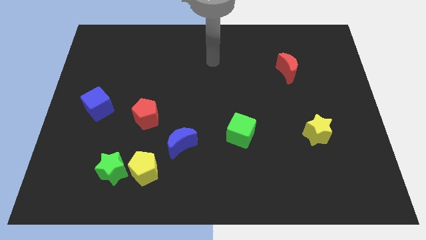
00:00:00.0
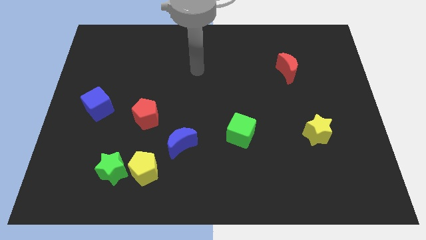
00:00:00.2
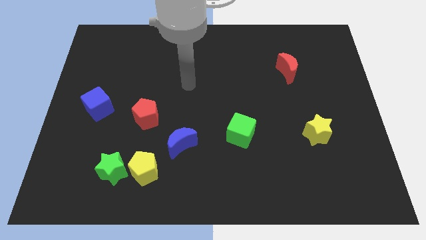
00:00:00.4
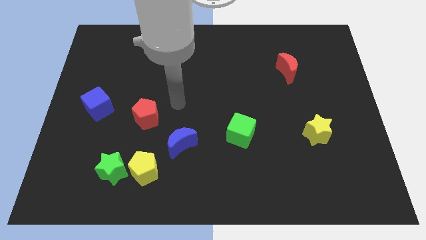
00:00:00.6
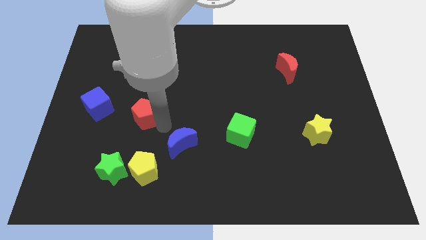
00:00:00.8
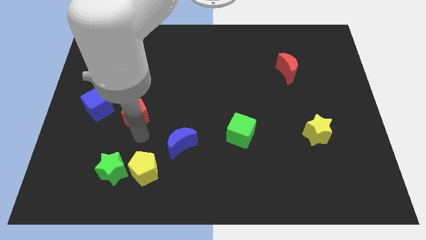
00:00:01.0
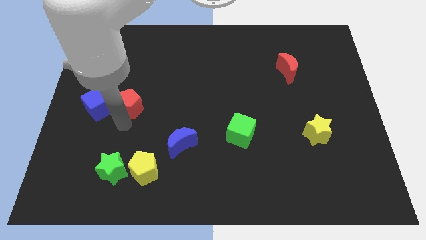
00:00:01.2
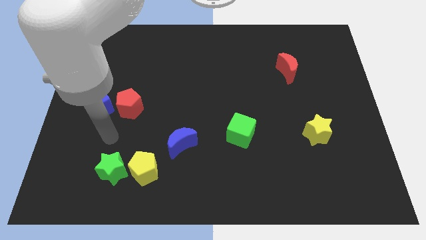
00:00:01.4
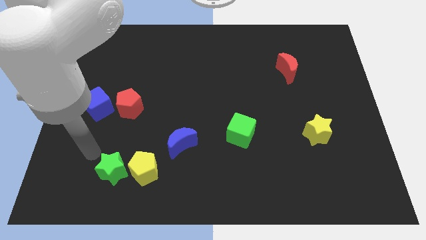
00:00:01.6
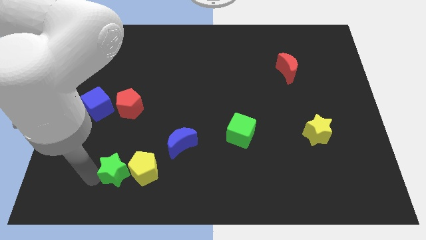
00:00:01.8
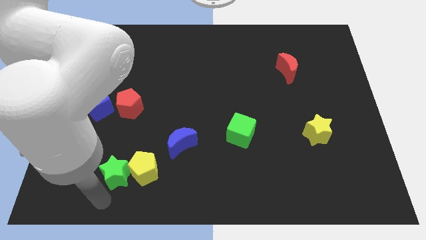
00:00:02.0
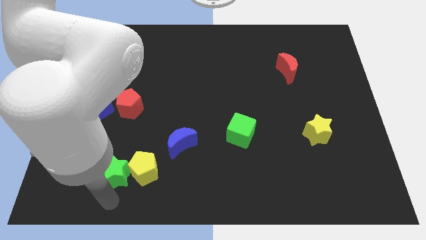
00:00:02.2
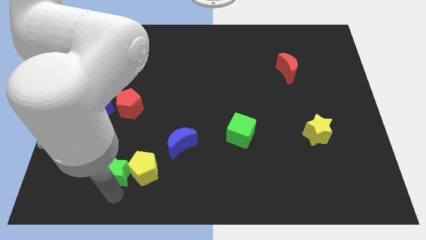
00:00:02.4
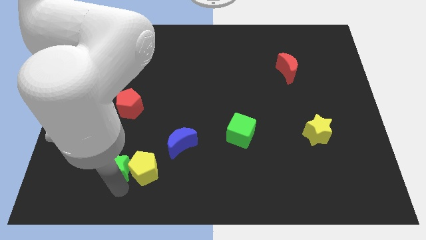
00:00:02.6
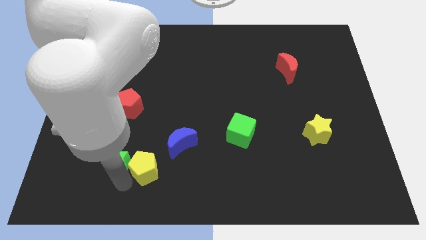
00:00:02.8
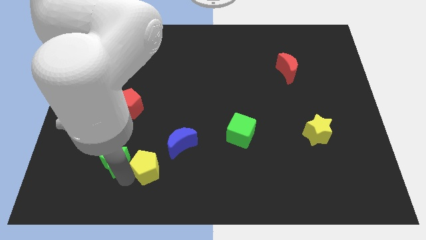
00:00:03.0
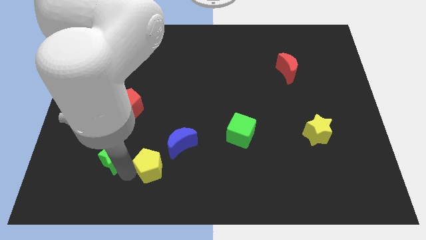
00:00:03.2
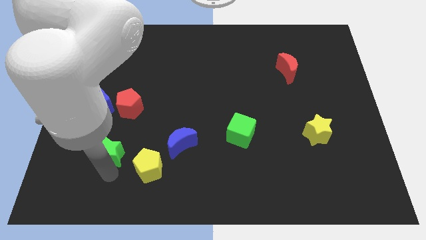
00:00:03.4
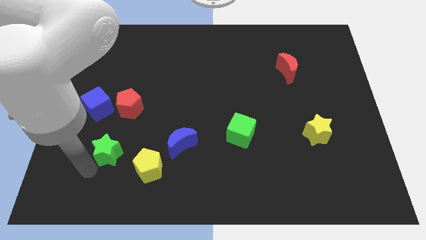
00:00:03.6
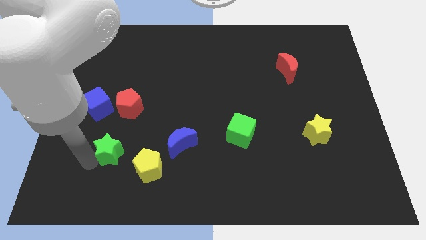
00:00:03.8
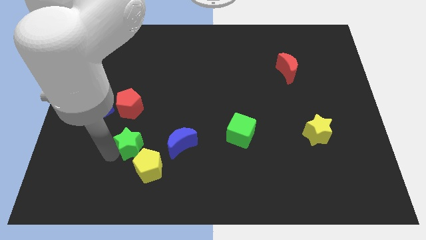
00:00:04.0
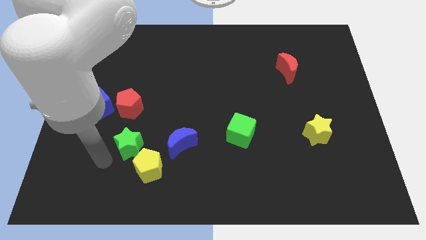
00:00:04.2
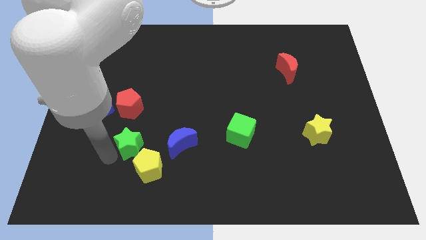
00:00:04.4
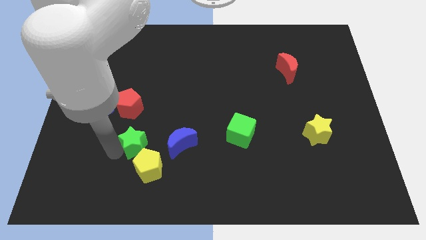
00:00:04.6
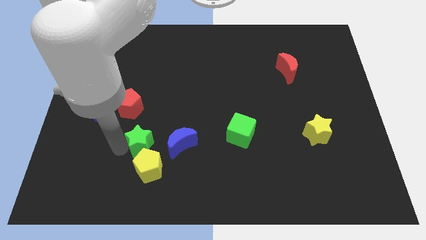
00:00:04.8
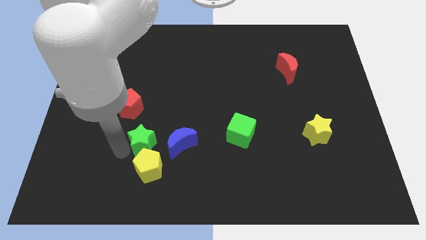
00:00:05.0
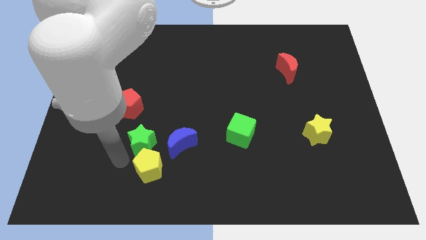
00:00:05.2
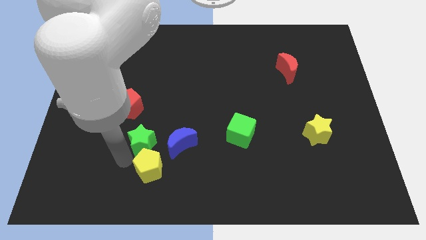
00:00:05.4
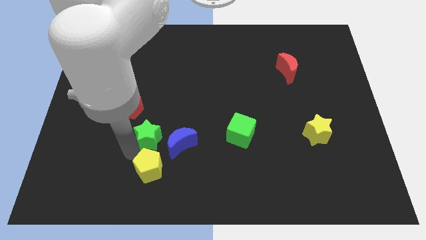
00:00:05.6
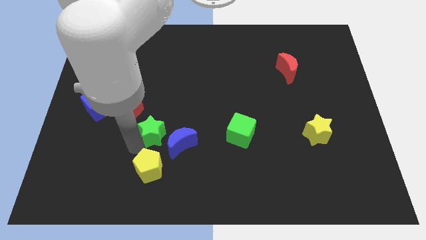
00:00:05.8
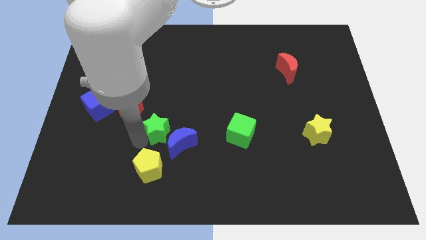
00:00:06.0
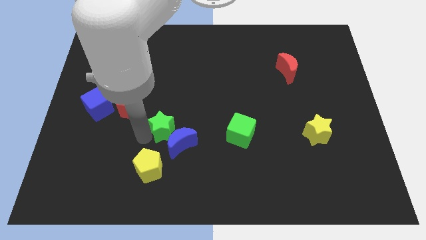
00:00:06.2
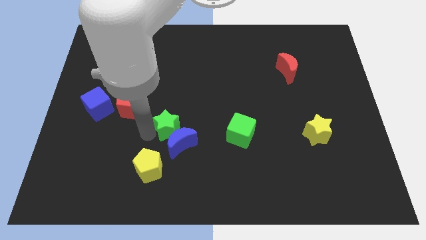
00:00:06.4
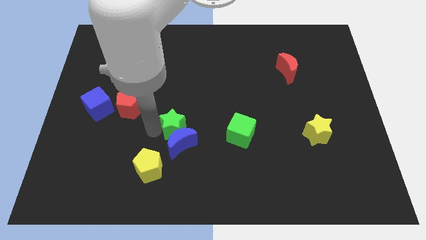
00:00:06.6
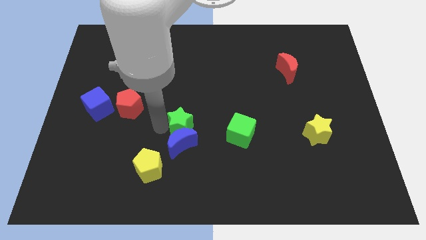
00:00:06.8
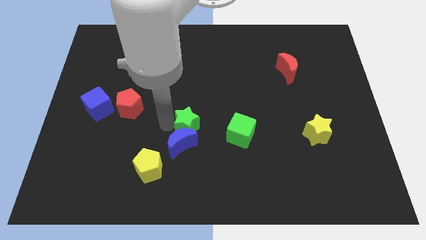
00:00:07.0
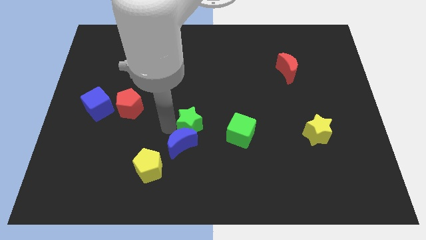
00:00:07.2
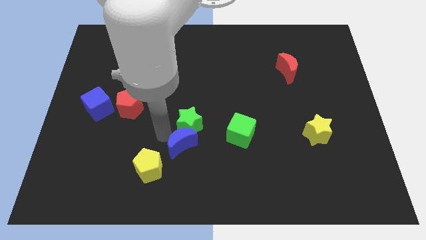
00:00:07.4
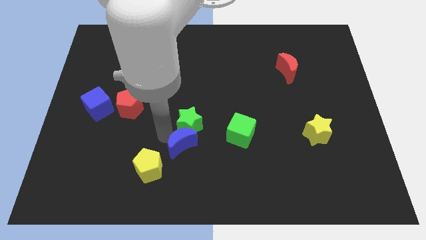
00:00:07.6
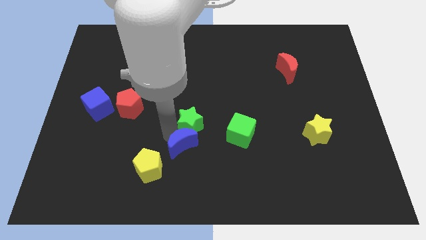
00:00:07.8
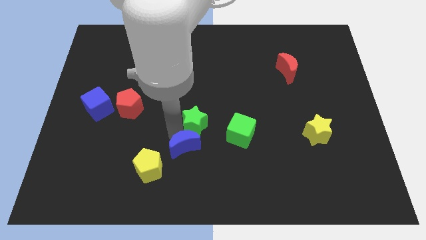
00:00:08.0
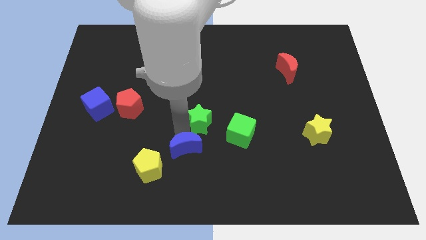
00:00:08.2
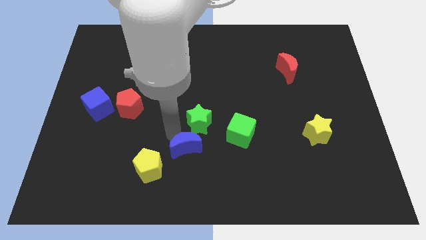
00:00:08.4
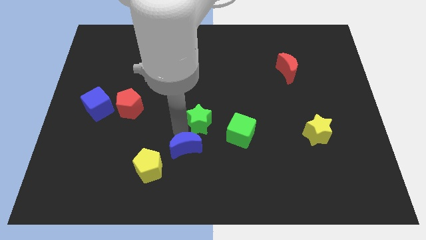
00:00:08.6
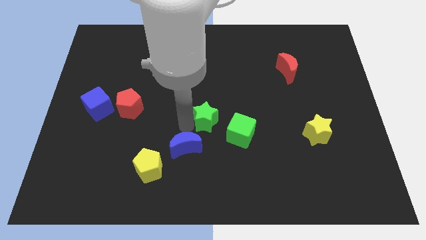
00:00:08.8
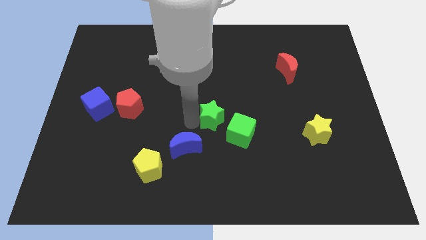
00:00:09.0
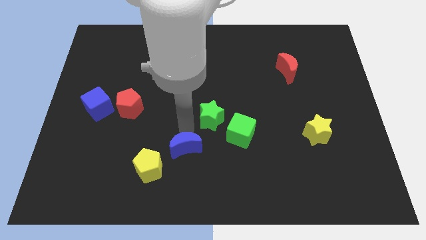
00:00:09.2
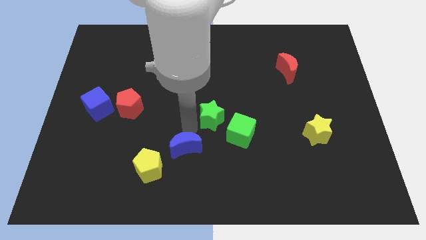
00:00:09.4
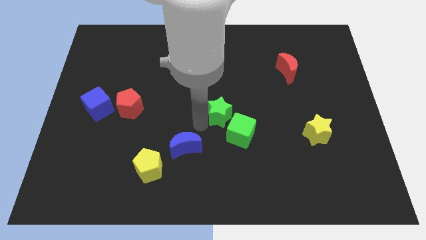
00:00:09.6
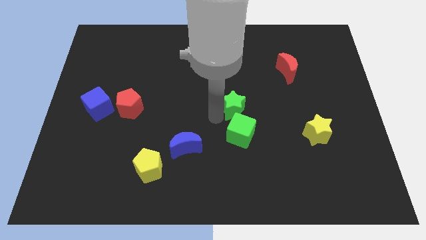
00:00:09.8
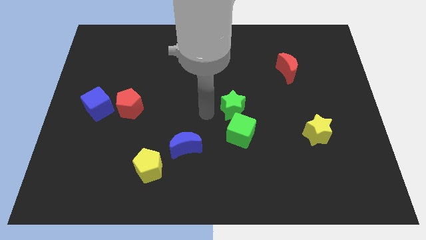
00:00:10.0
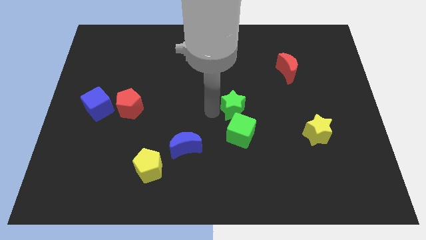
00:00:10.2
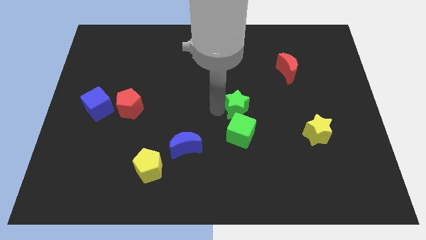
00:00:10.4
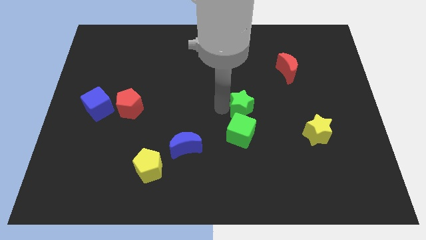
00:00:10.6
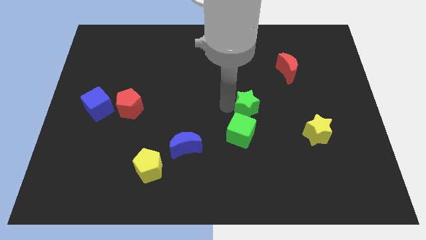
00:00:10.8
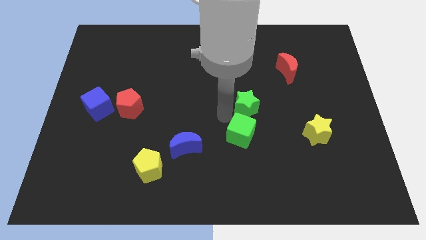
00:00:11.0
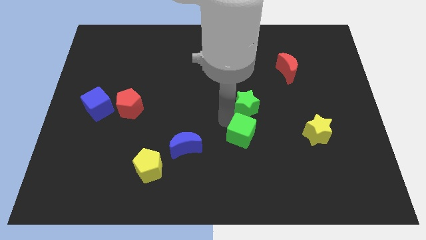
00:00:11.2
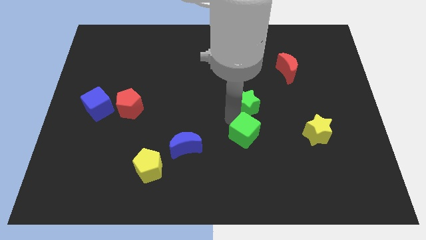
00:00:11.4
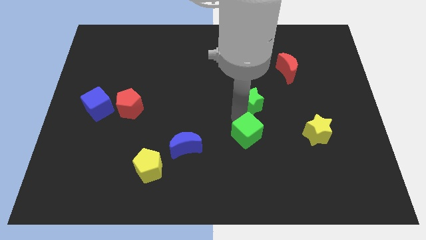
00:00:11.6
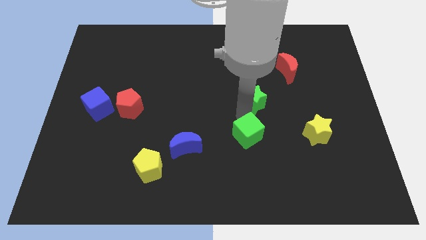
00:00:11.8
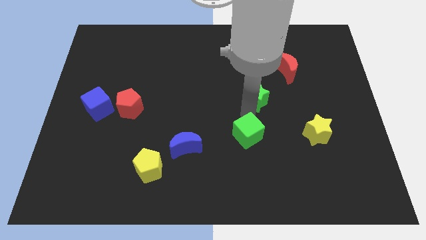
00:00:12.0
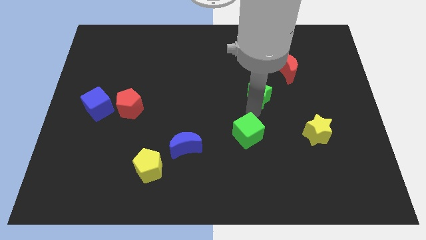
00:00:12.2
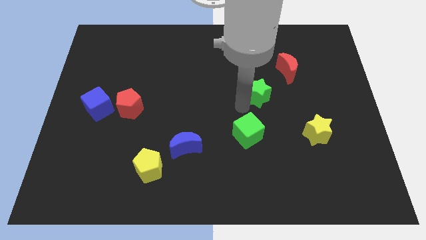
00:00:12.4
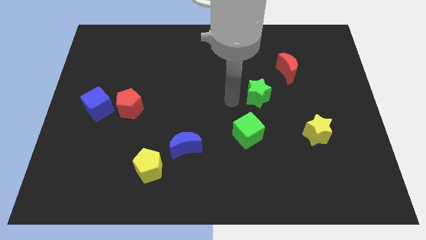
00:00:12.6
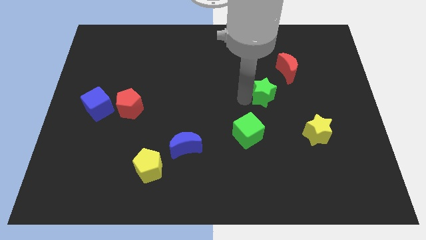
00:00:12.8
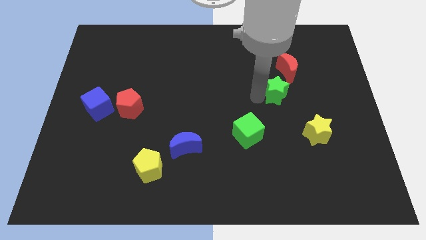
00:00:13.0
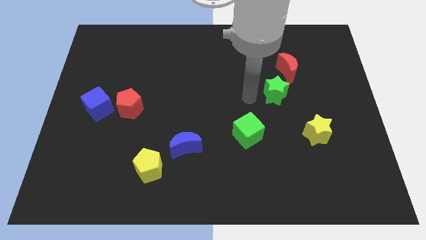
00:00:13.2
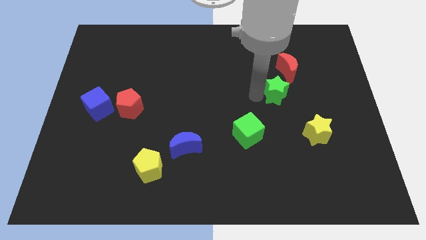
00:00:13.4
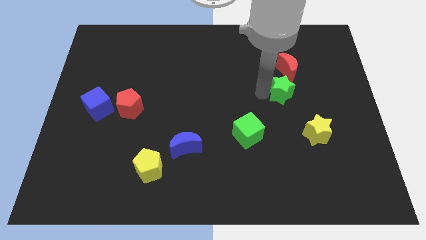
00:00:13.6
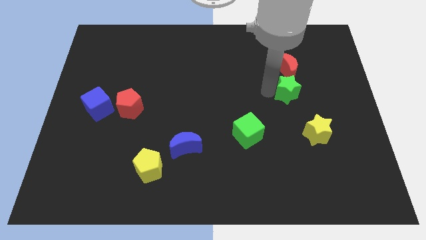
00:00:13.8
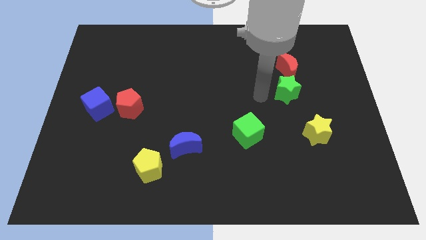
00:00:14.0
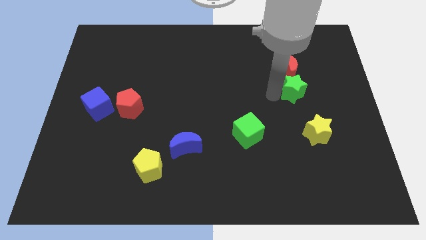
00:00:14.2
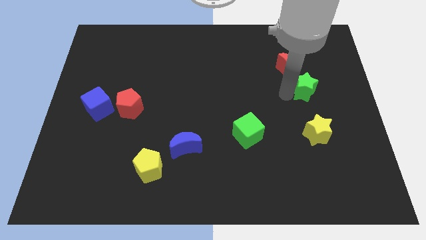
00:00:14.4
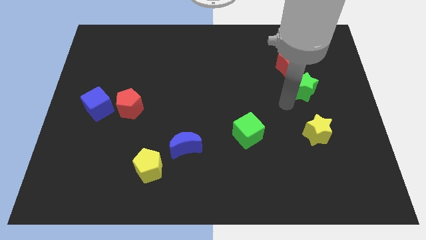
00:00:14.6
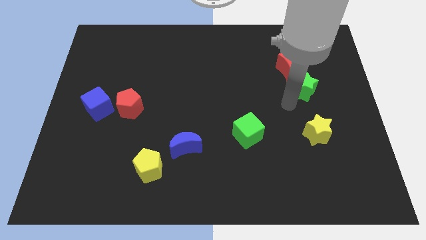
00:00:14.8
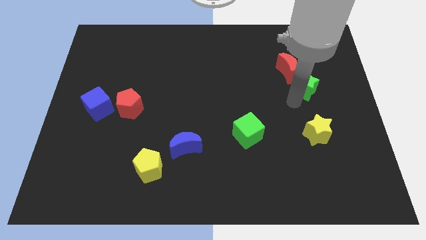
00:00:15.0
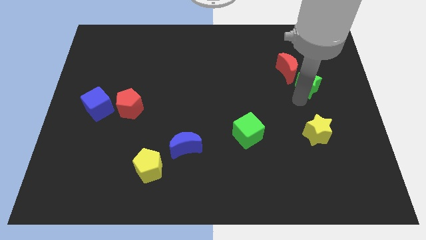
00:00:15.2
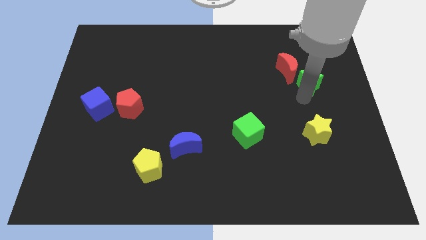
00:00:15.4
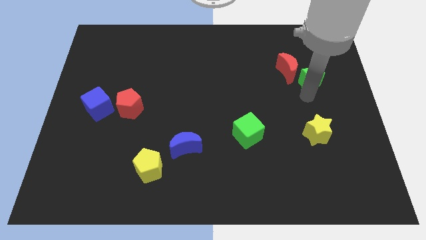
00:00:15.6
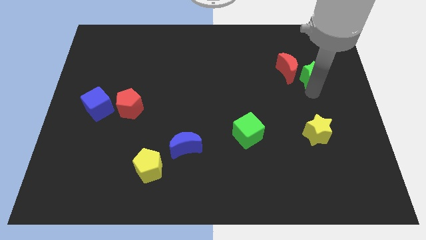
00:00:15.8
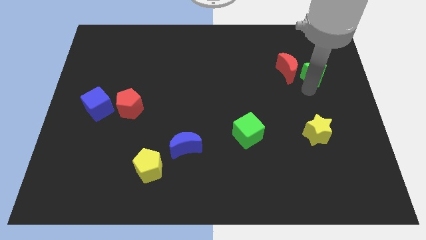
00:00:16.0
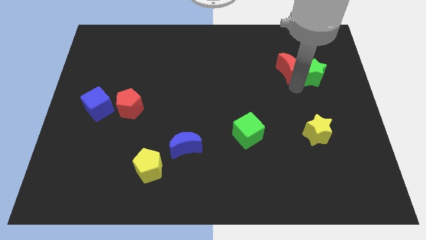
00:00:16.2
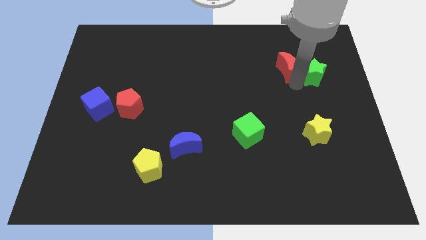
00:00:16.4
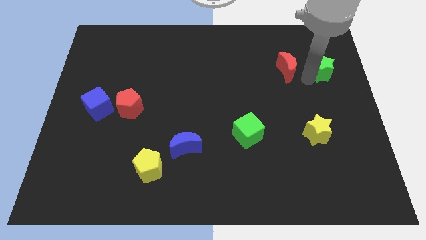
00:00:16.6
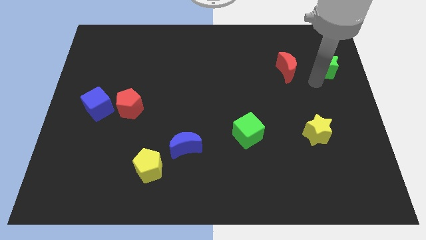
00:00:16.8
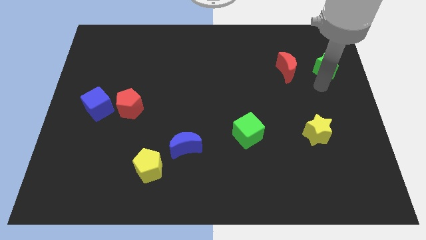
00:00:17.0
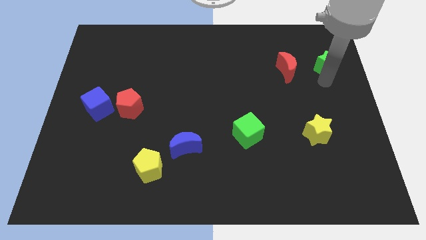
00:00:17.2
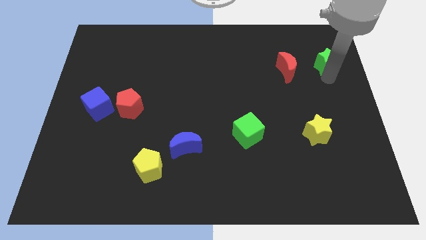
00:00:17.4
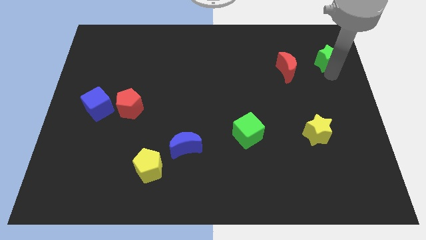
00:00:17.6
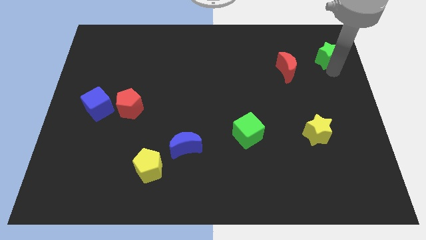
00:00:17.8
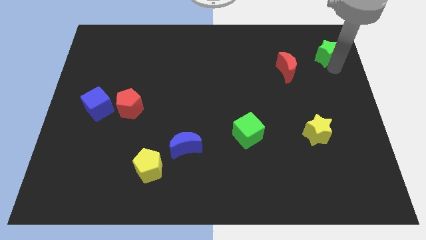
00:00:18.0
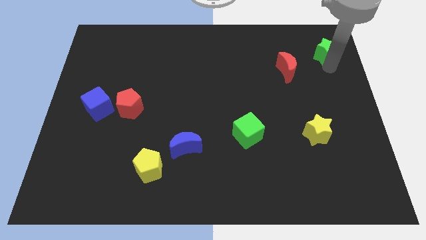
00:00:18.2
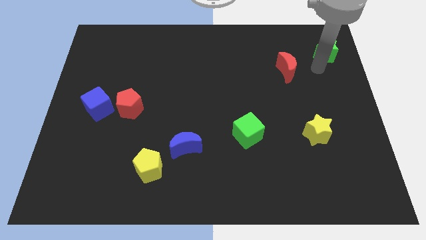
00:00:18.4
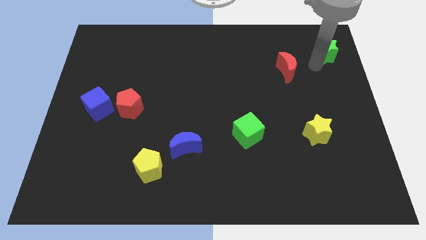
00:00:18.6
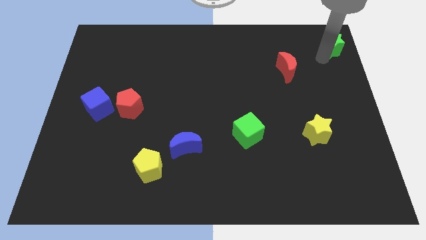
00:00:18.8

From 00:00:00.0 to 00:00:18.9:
slide the green star to the top right of the board
